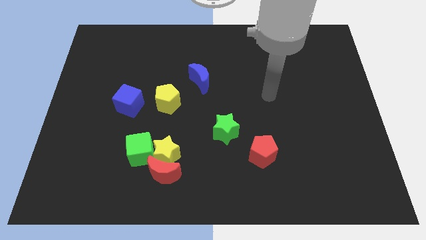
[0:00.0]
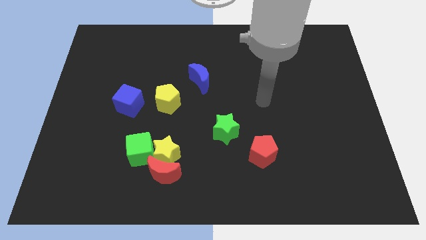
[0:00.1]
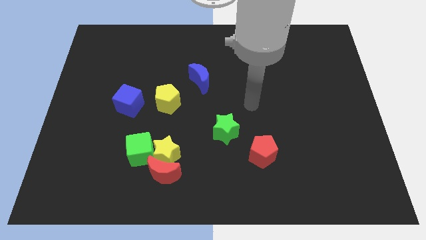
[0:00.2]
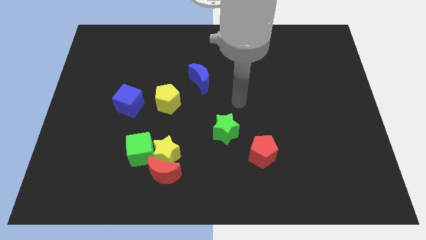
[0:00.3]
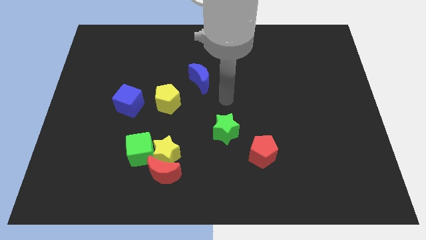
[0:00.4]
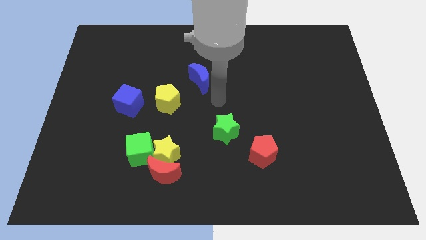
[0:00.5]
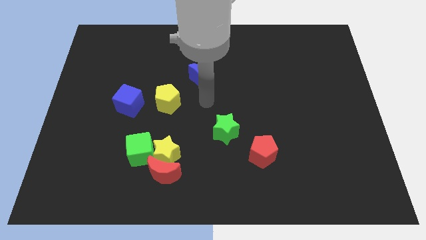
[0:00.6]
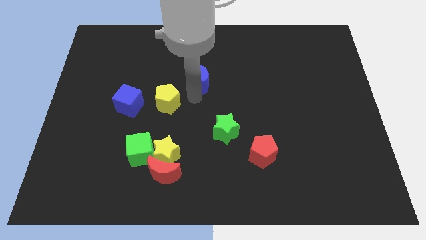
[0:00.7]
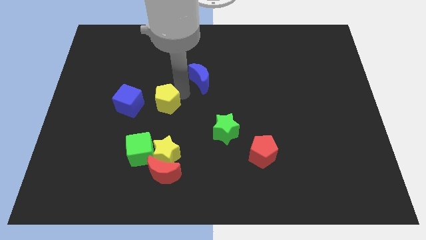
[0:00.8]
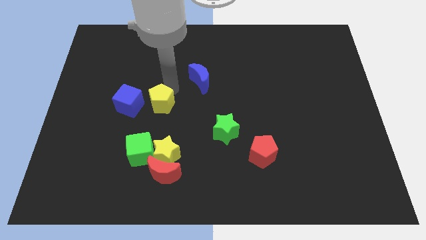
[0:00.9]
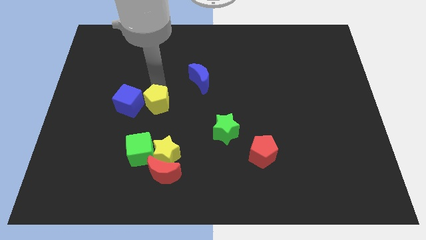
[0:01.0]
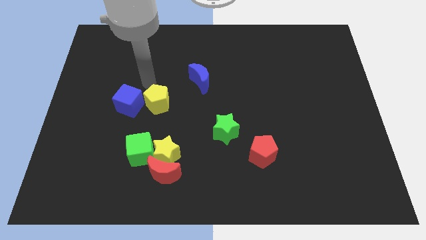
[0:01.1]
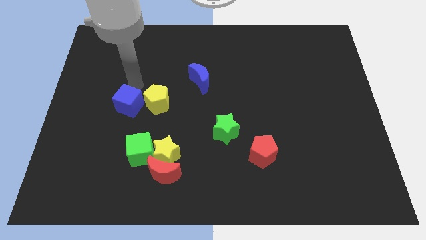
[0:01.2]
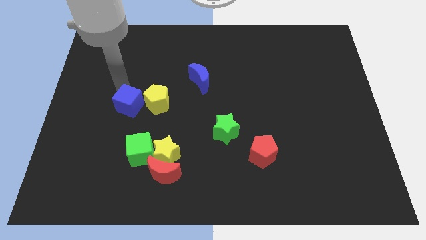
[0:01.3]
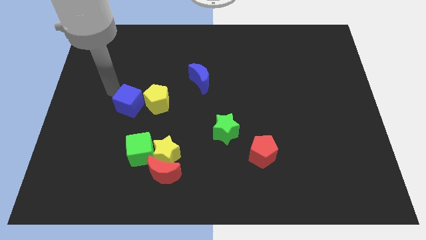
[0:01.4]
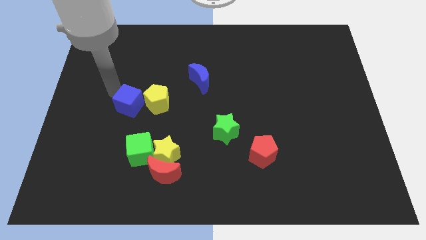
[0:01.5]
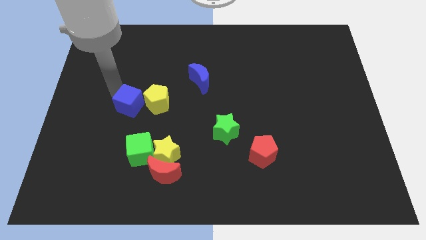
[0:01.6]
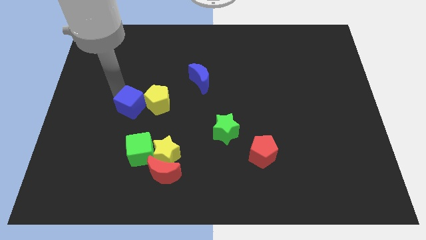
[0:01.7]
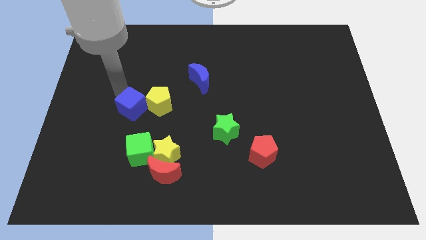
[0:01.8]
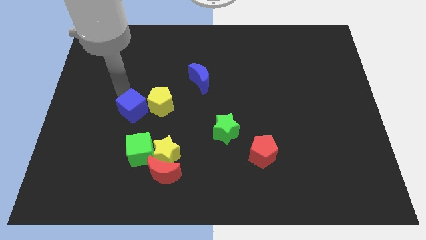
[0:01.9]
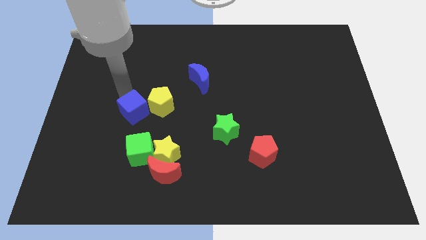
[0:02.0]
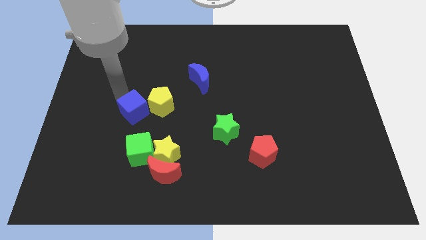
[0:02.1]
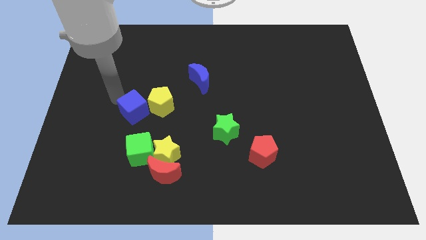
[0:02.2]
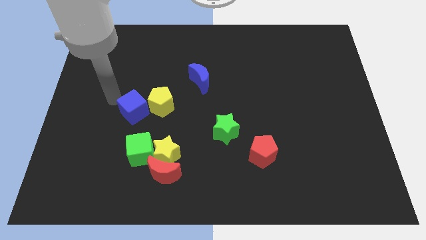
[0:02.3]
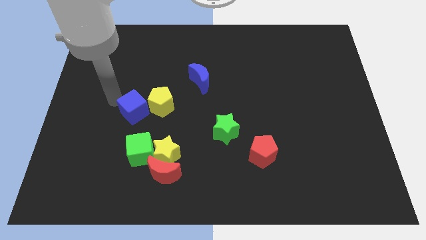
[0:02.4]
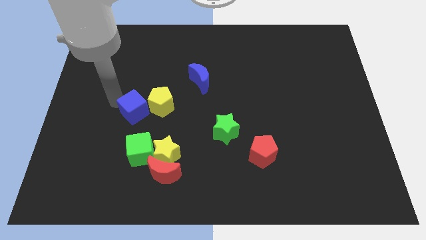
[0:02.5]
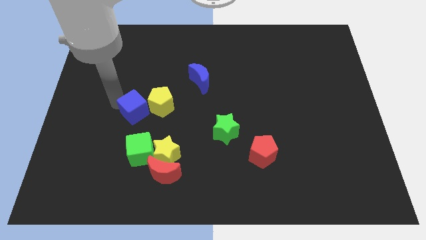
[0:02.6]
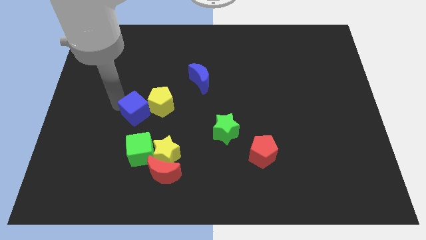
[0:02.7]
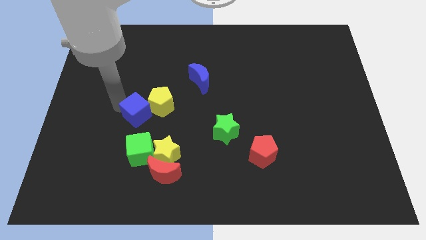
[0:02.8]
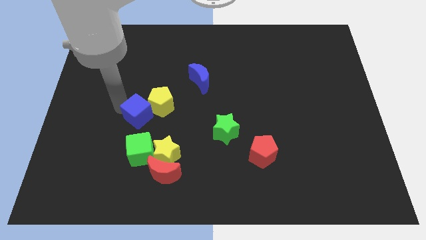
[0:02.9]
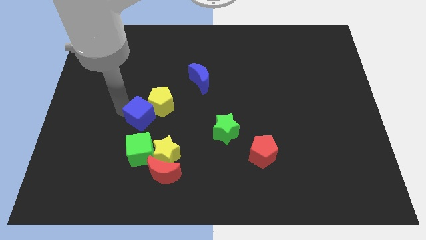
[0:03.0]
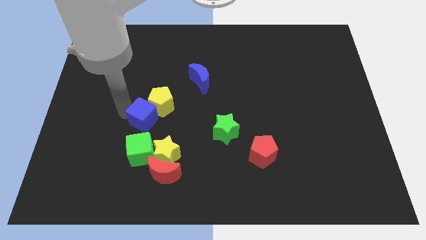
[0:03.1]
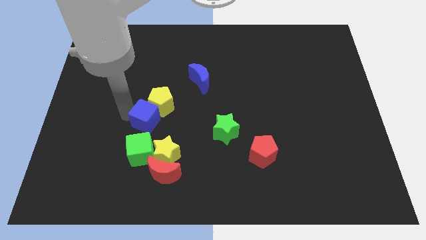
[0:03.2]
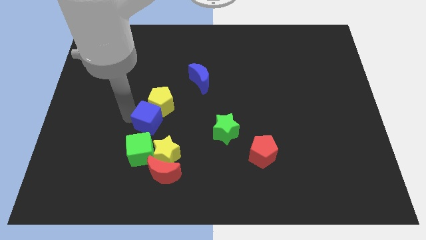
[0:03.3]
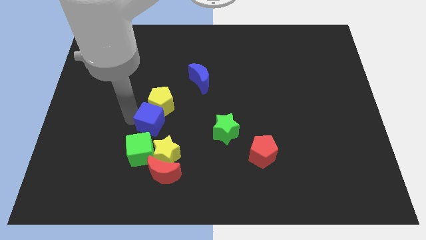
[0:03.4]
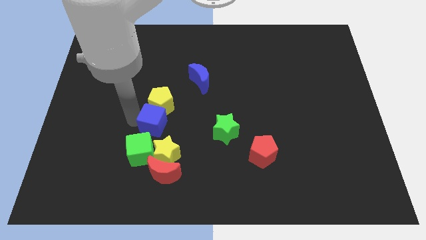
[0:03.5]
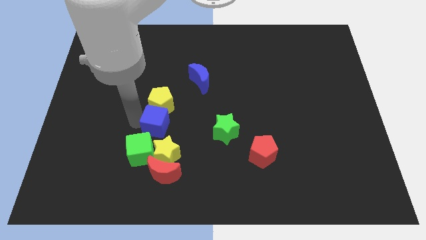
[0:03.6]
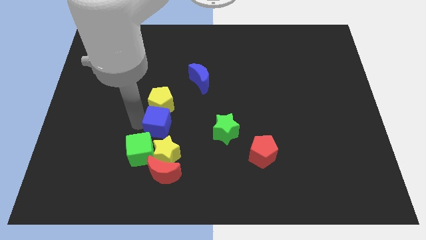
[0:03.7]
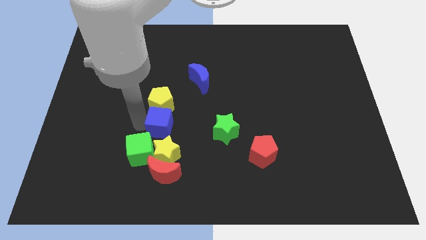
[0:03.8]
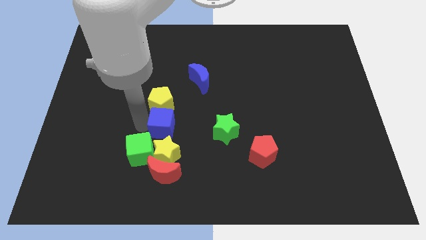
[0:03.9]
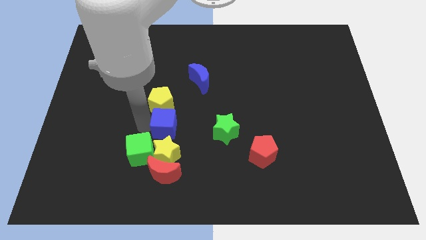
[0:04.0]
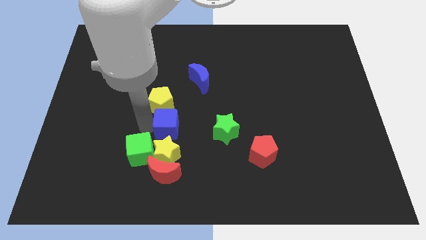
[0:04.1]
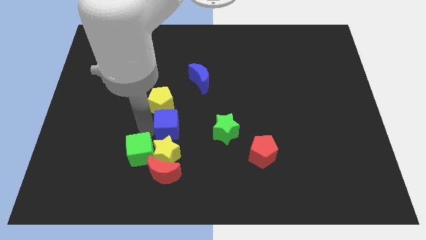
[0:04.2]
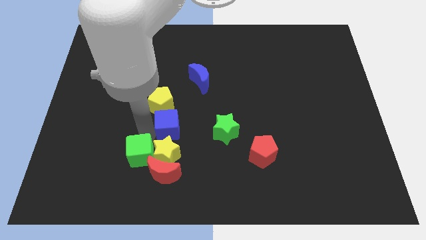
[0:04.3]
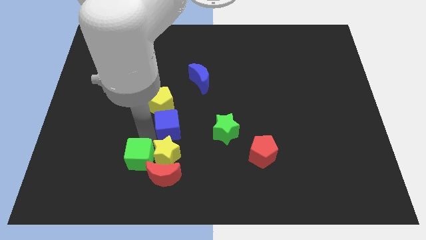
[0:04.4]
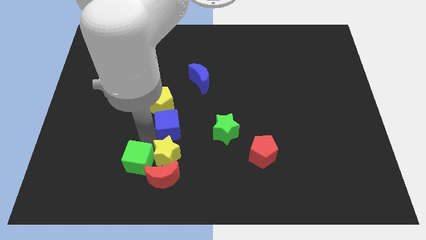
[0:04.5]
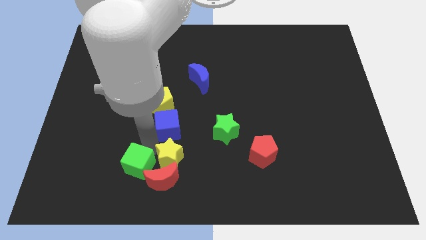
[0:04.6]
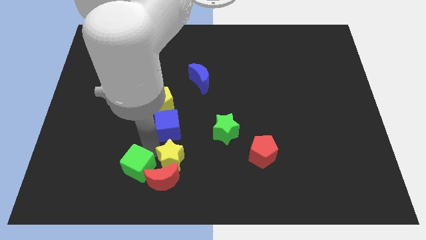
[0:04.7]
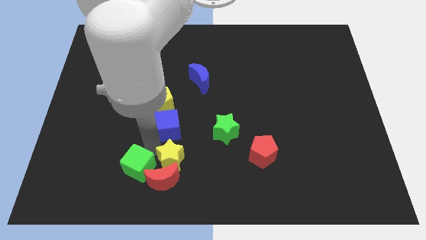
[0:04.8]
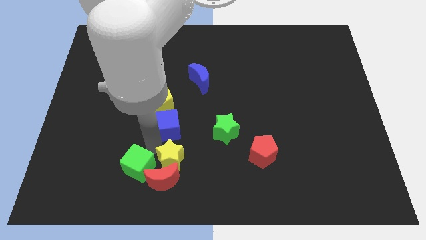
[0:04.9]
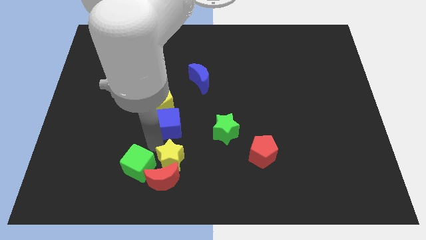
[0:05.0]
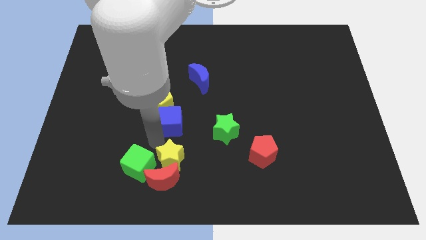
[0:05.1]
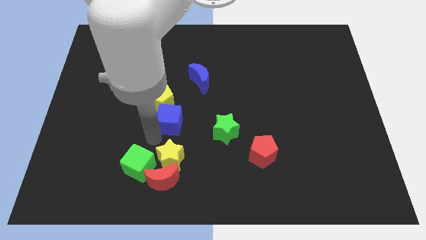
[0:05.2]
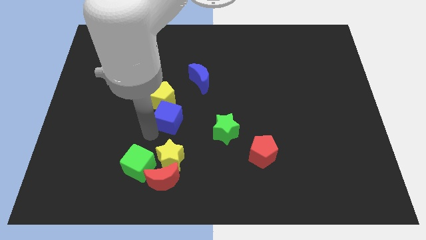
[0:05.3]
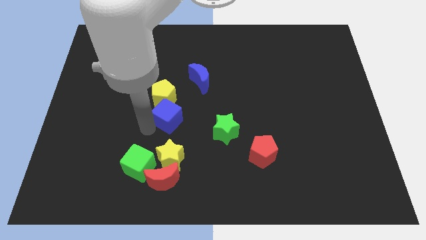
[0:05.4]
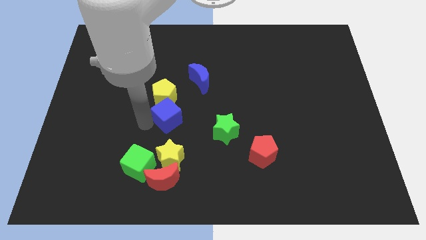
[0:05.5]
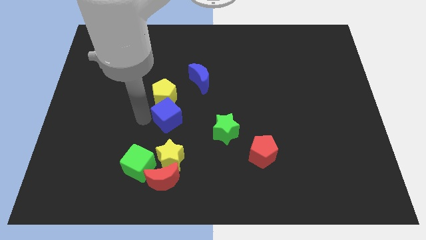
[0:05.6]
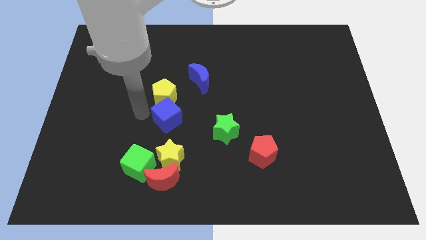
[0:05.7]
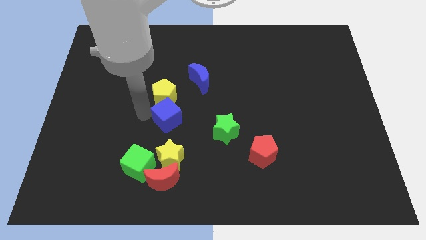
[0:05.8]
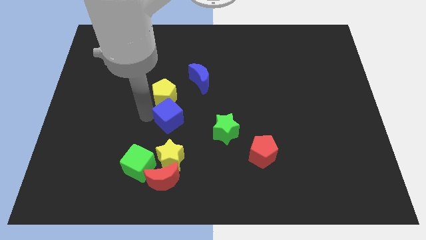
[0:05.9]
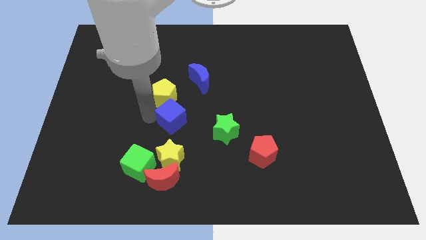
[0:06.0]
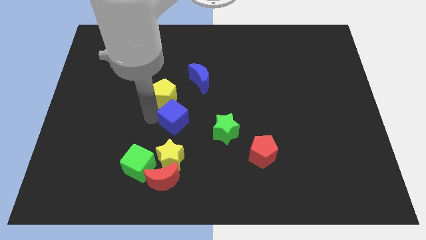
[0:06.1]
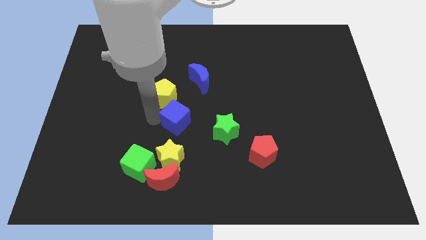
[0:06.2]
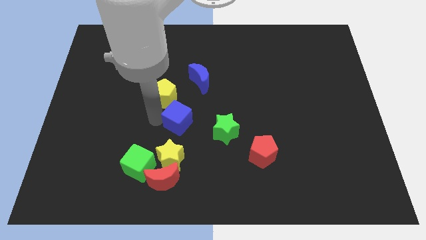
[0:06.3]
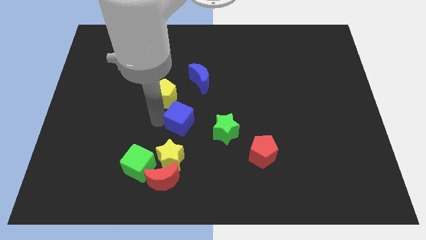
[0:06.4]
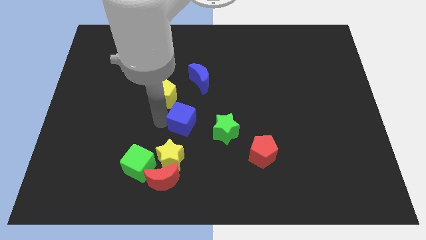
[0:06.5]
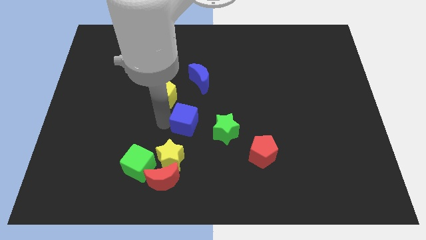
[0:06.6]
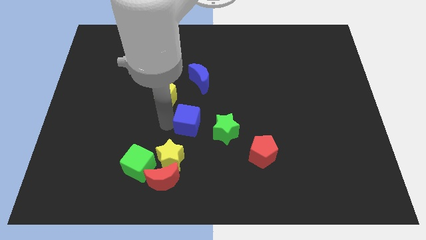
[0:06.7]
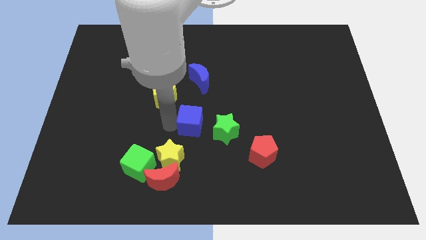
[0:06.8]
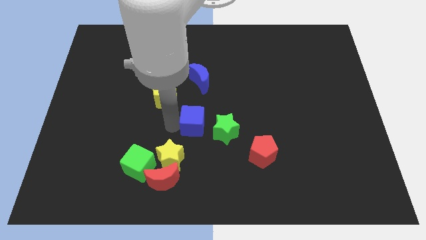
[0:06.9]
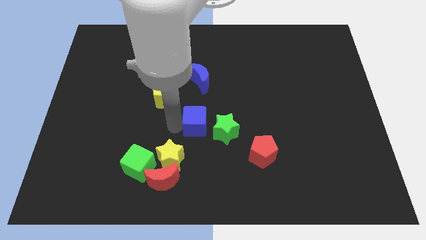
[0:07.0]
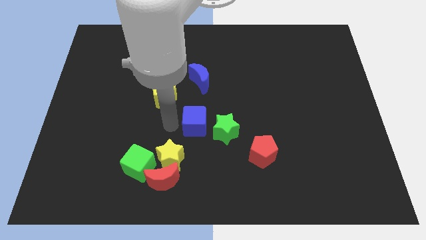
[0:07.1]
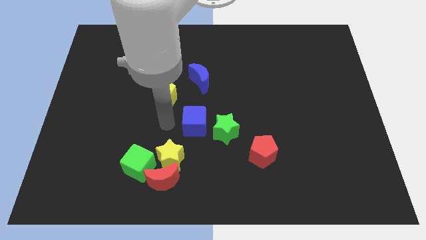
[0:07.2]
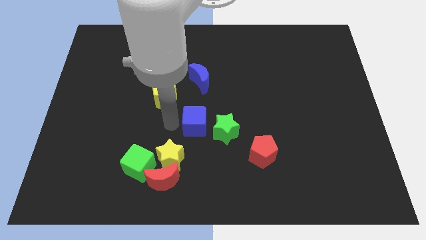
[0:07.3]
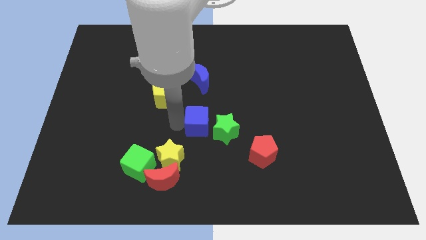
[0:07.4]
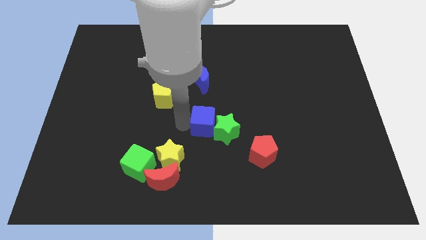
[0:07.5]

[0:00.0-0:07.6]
push the blue cube next to the green star
